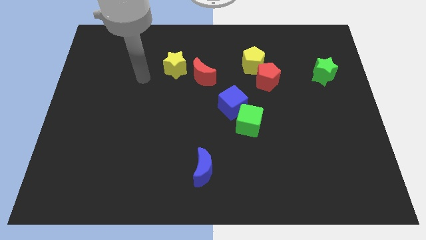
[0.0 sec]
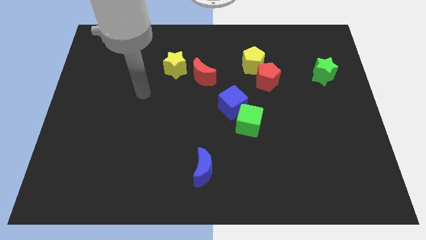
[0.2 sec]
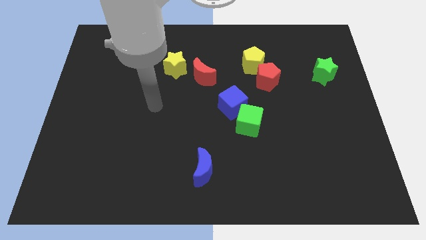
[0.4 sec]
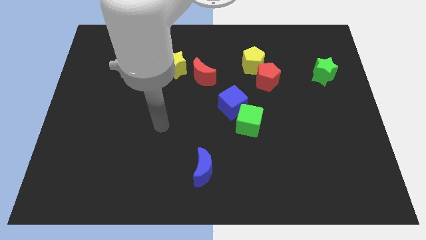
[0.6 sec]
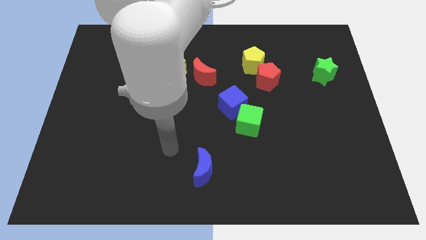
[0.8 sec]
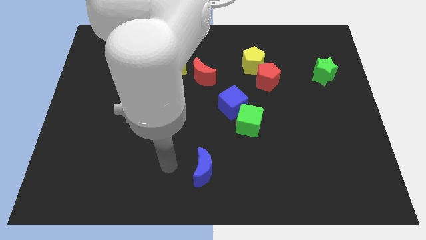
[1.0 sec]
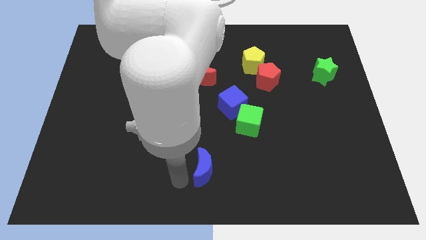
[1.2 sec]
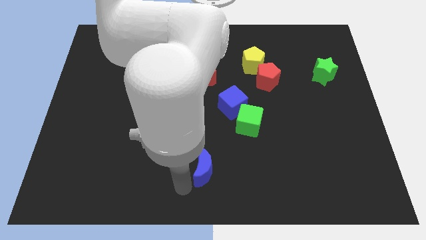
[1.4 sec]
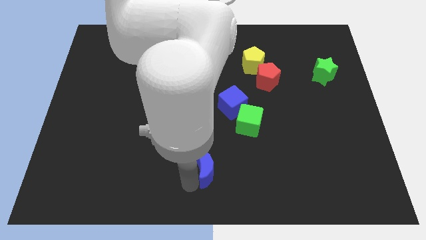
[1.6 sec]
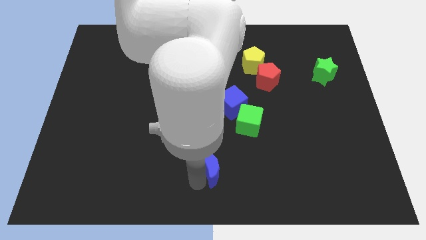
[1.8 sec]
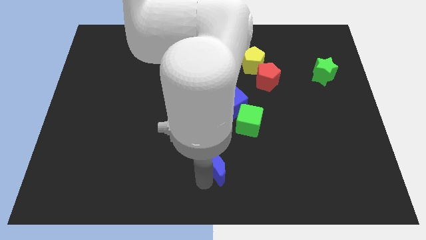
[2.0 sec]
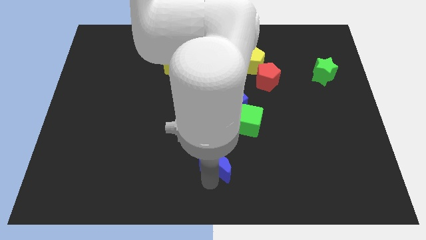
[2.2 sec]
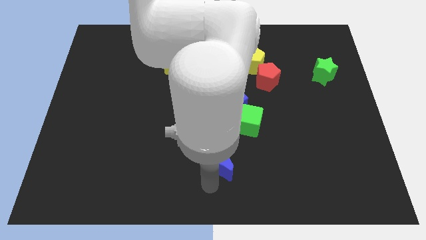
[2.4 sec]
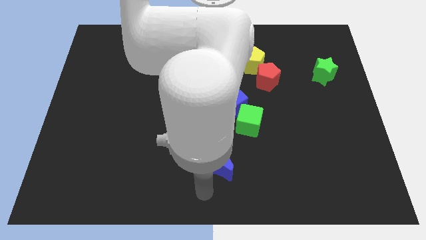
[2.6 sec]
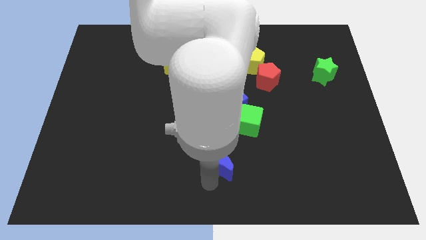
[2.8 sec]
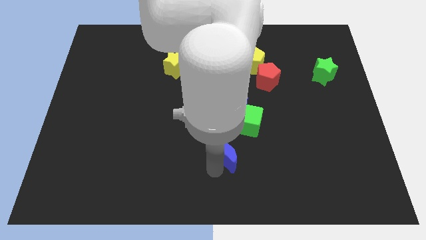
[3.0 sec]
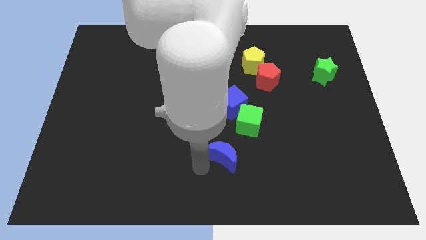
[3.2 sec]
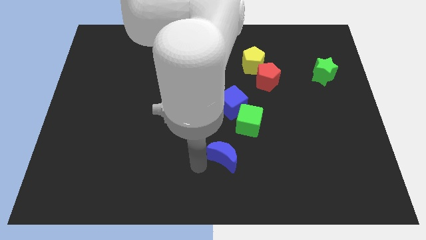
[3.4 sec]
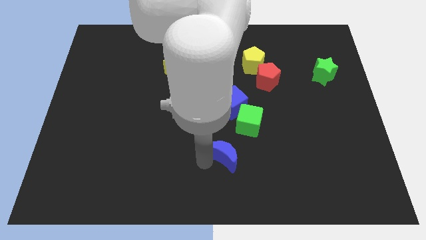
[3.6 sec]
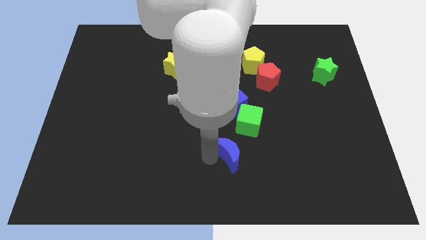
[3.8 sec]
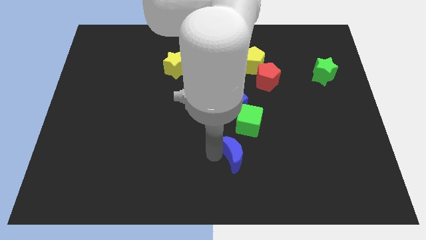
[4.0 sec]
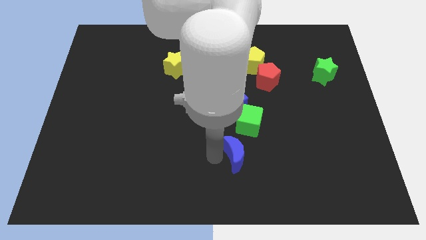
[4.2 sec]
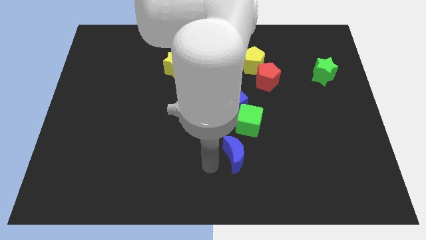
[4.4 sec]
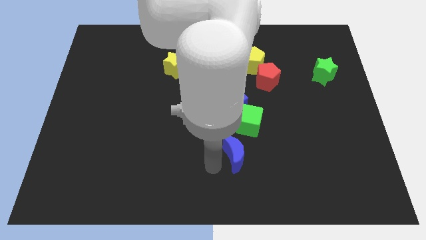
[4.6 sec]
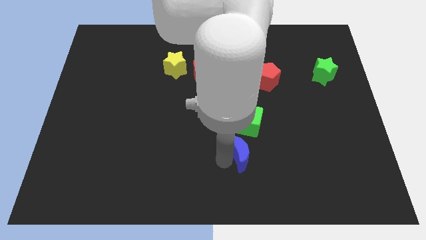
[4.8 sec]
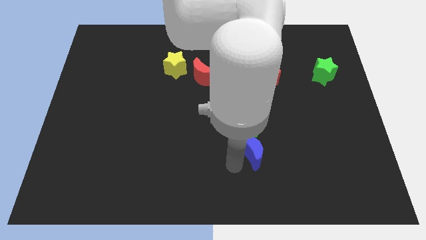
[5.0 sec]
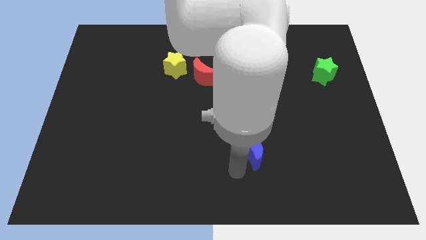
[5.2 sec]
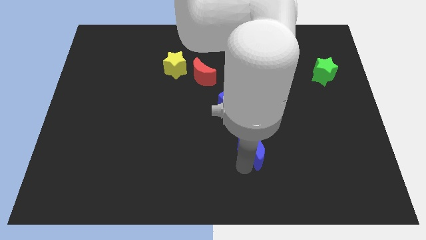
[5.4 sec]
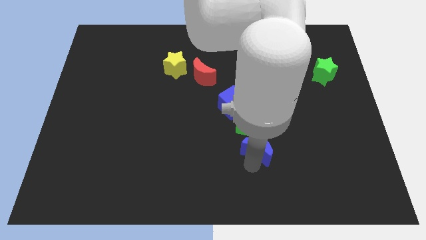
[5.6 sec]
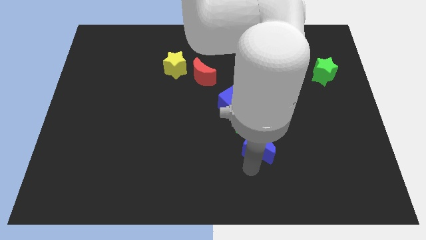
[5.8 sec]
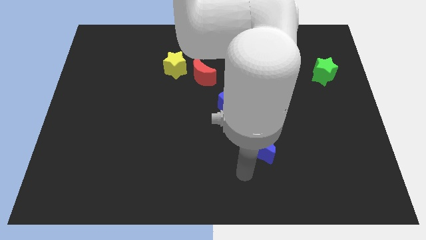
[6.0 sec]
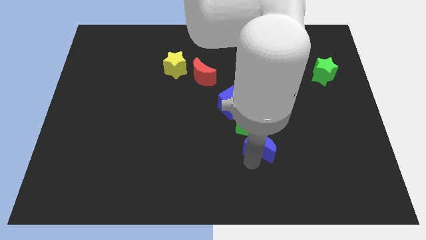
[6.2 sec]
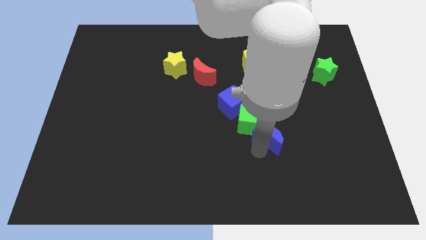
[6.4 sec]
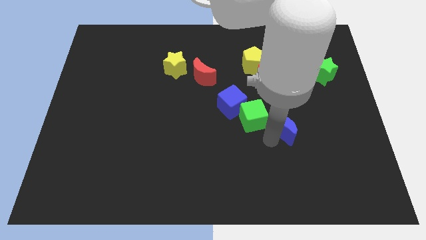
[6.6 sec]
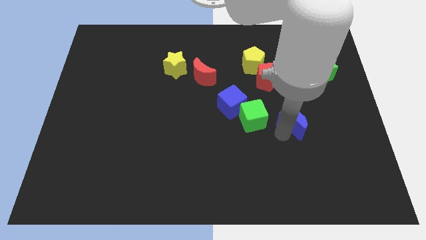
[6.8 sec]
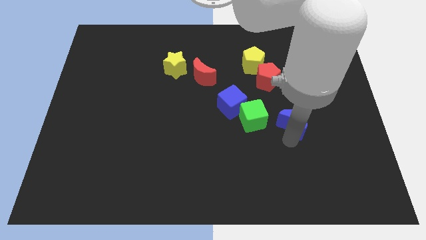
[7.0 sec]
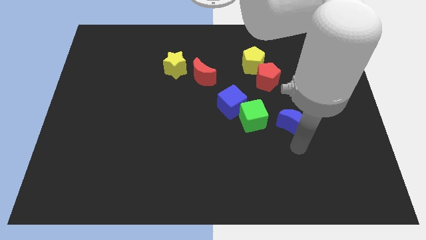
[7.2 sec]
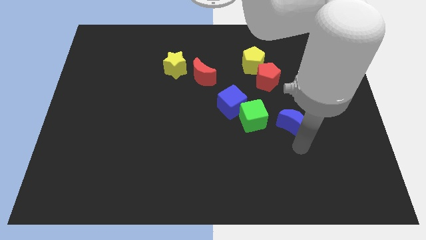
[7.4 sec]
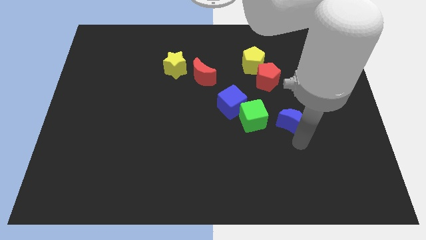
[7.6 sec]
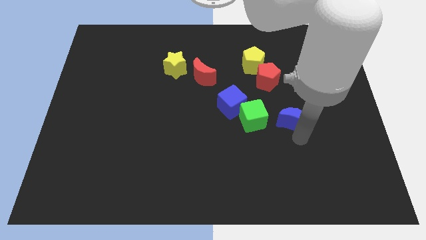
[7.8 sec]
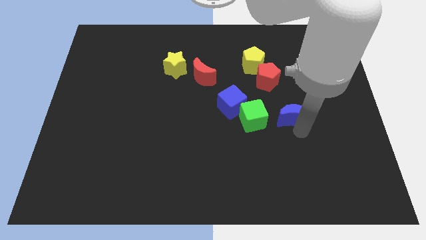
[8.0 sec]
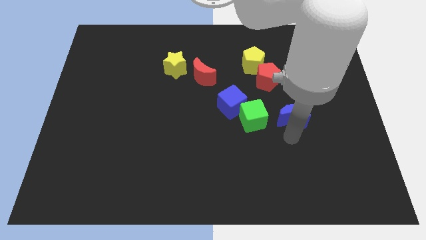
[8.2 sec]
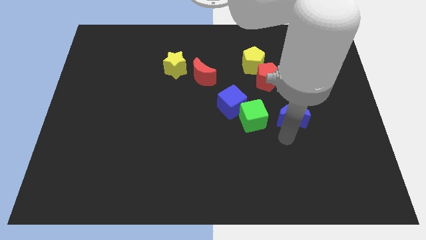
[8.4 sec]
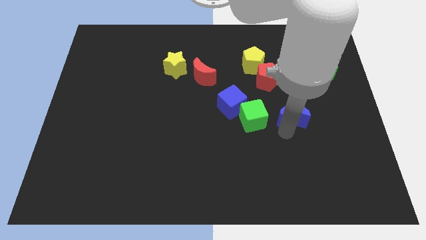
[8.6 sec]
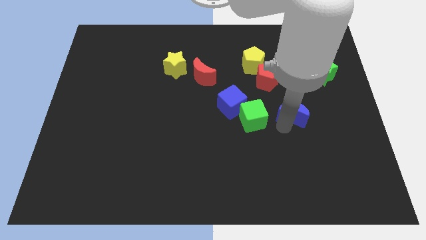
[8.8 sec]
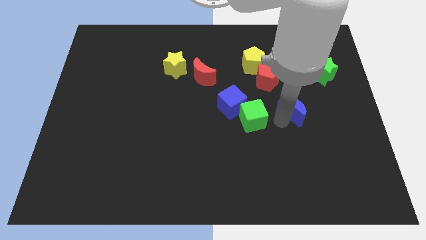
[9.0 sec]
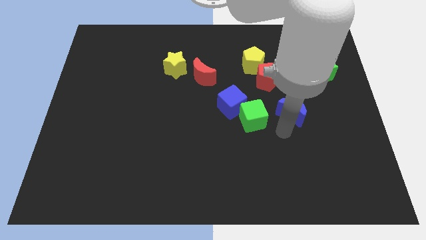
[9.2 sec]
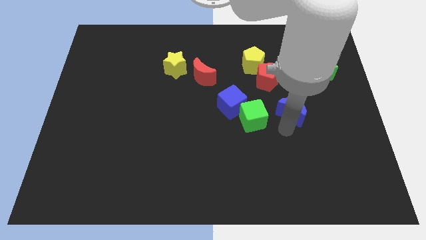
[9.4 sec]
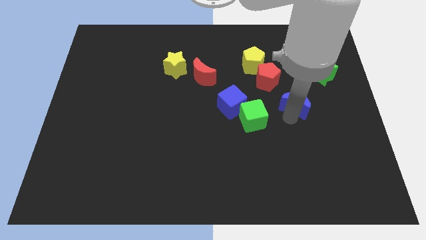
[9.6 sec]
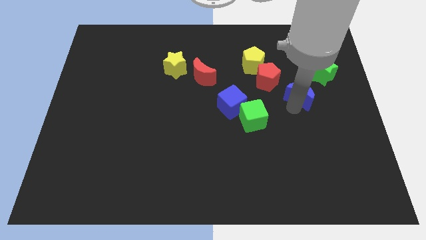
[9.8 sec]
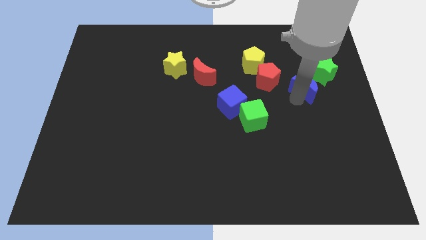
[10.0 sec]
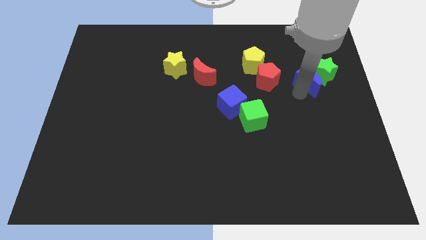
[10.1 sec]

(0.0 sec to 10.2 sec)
move the blue moon to the green star

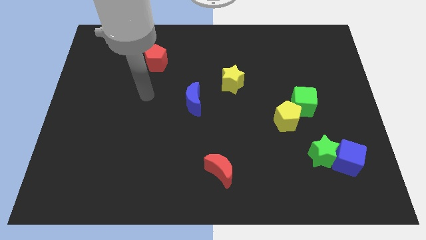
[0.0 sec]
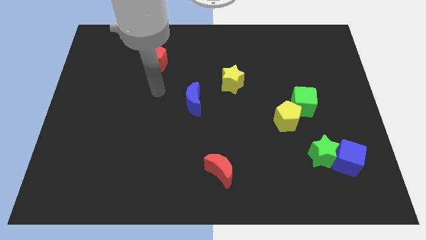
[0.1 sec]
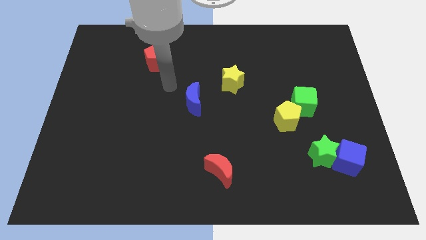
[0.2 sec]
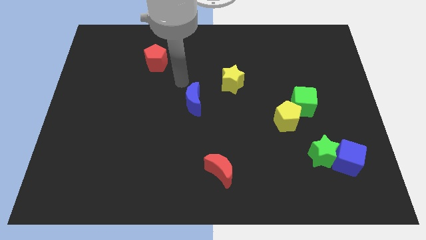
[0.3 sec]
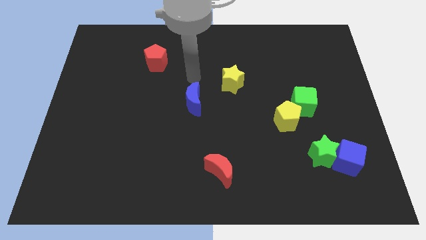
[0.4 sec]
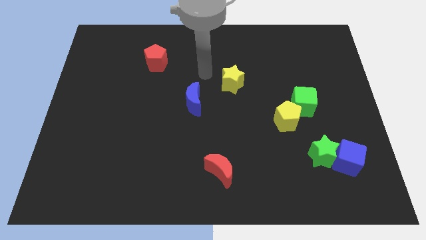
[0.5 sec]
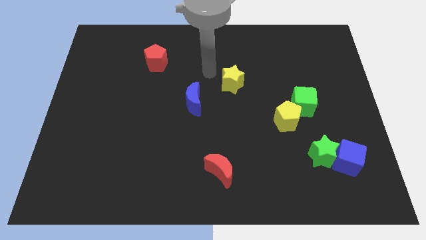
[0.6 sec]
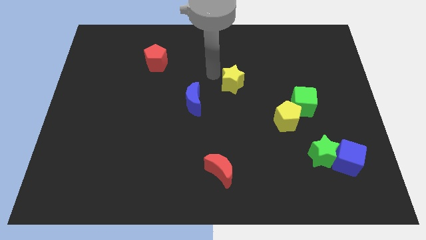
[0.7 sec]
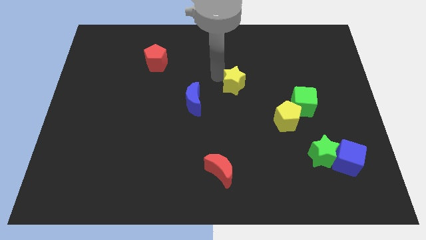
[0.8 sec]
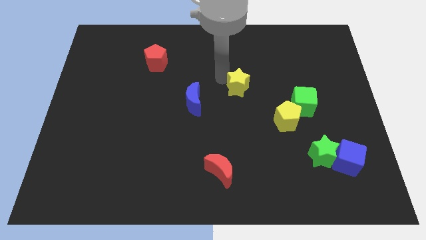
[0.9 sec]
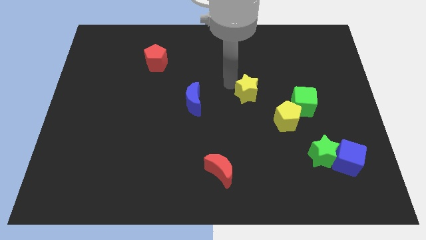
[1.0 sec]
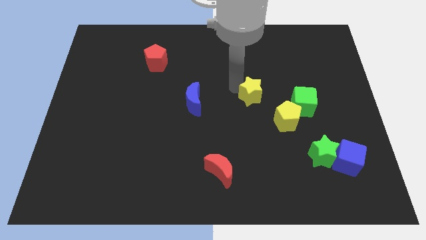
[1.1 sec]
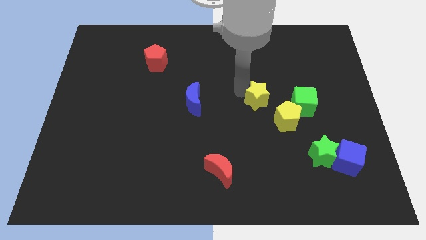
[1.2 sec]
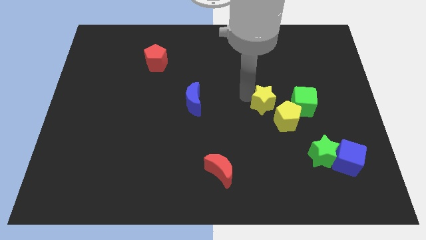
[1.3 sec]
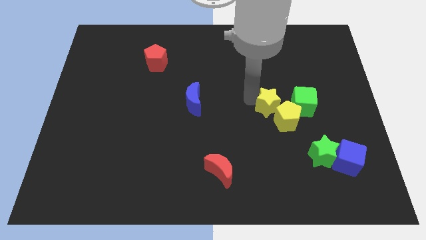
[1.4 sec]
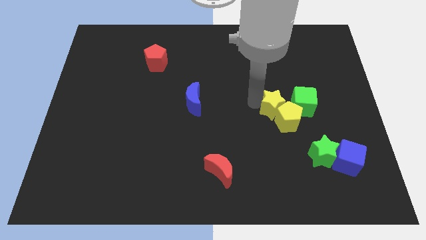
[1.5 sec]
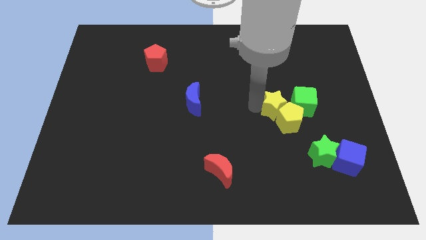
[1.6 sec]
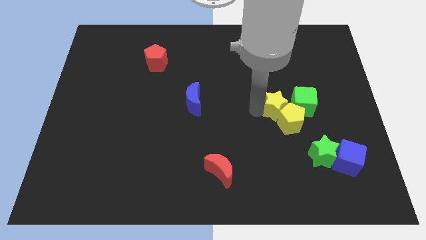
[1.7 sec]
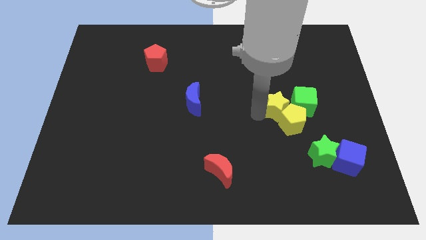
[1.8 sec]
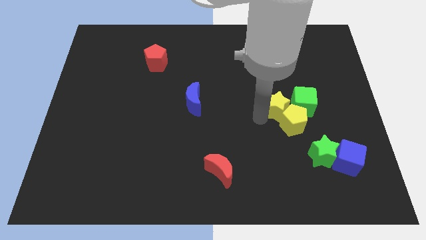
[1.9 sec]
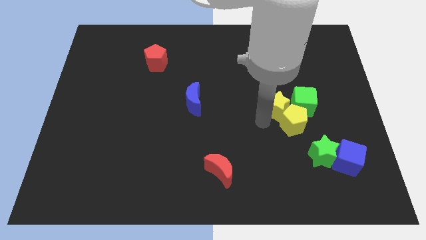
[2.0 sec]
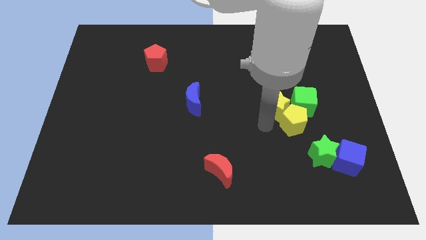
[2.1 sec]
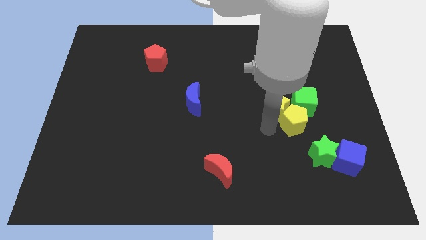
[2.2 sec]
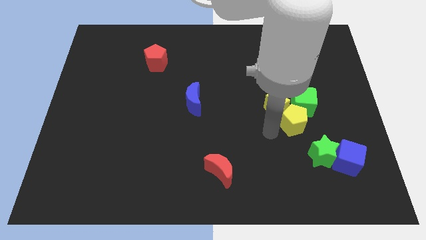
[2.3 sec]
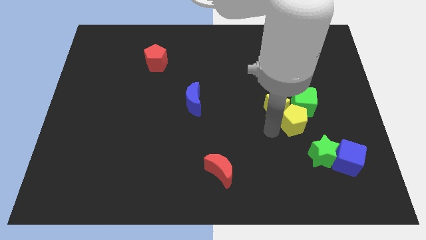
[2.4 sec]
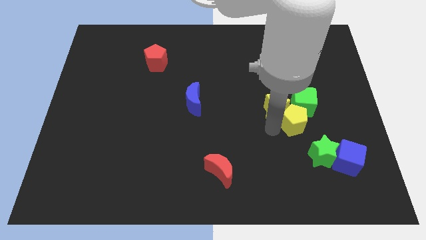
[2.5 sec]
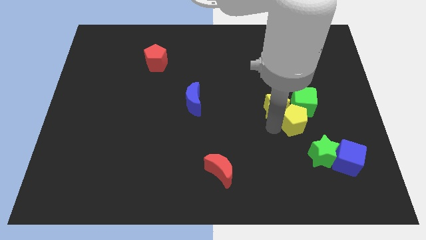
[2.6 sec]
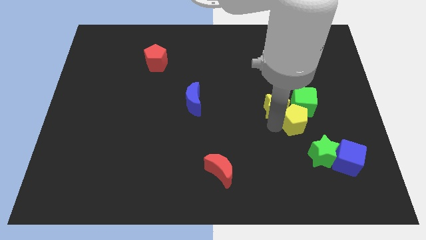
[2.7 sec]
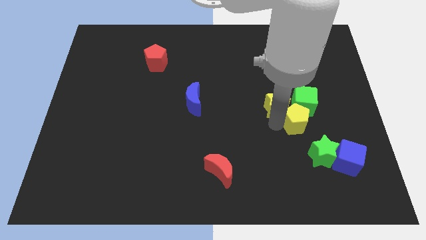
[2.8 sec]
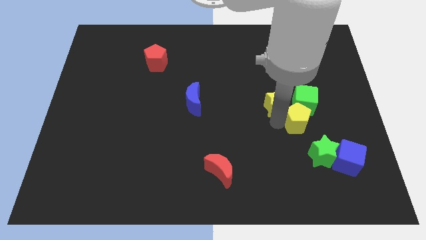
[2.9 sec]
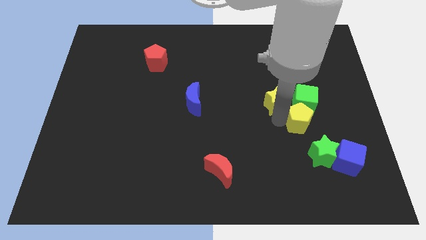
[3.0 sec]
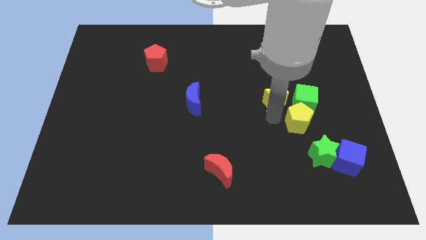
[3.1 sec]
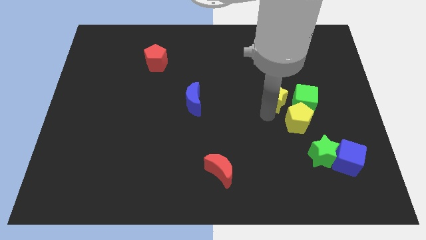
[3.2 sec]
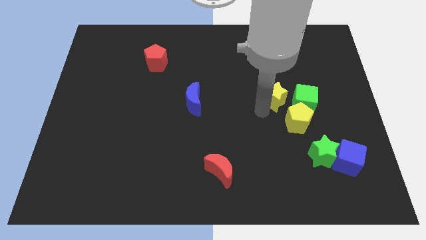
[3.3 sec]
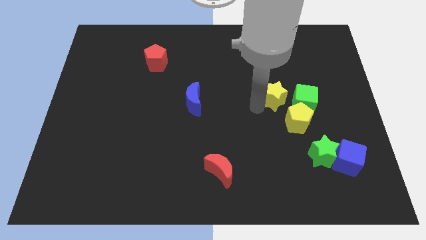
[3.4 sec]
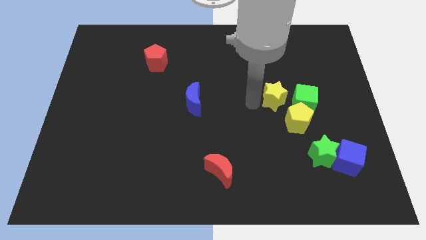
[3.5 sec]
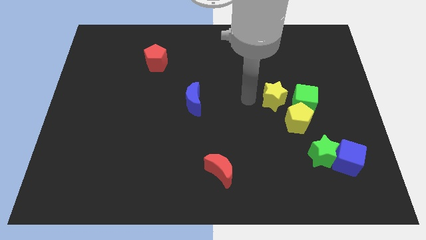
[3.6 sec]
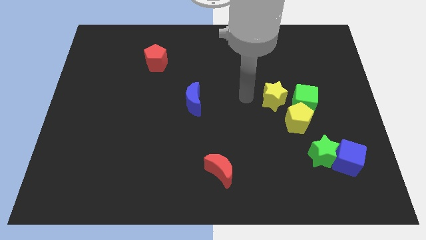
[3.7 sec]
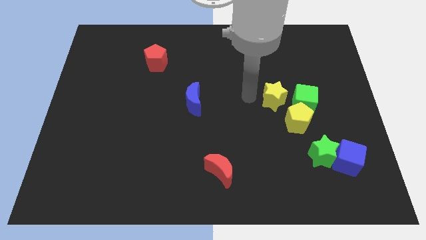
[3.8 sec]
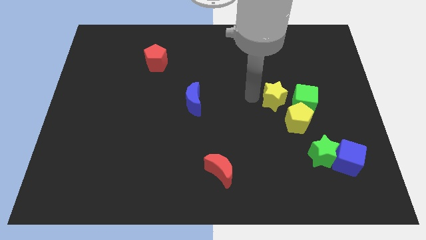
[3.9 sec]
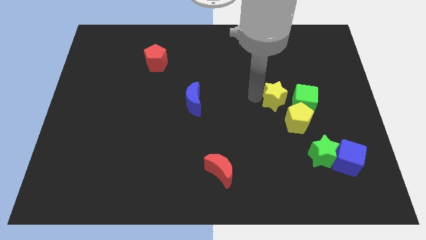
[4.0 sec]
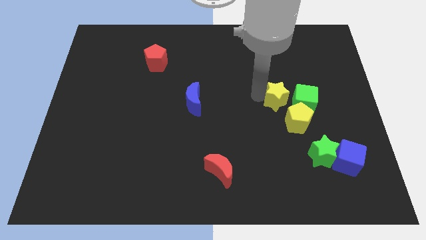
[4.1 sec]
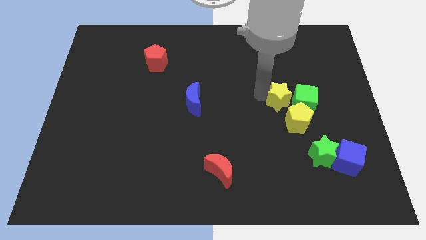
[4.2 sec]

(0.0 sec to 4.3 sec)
push the yellow star next to the green cube
